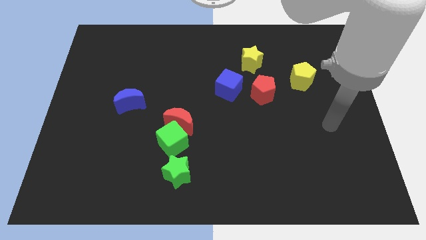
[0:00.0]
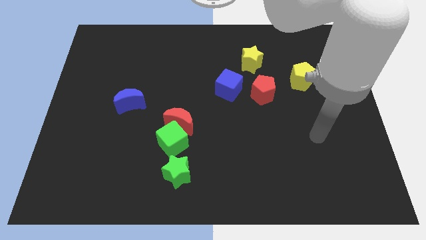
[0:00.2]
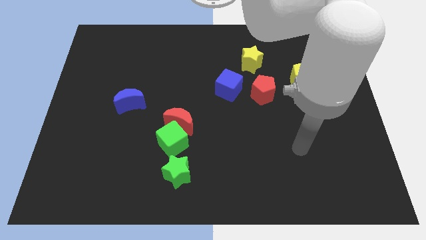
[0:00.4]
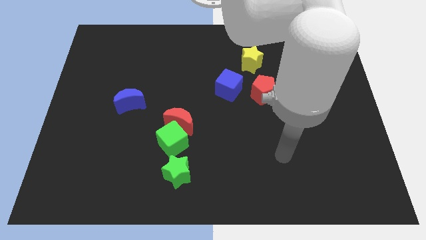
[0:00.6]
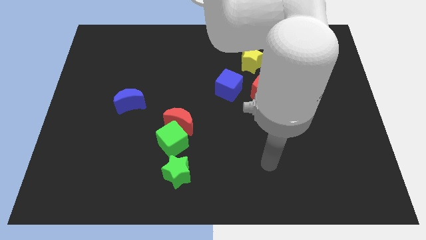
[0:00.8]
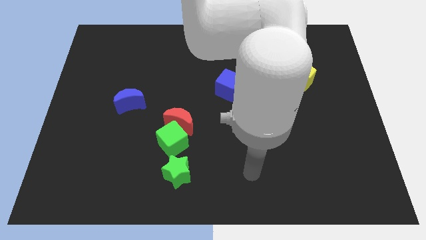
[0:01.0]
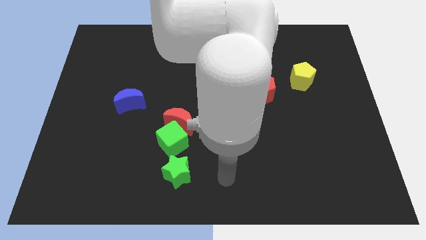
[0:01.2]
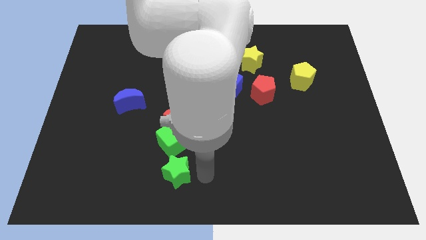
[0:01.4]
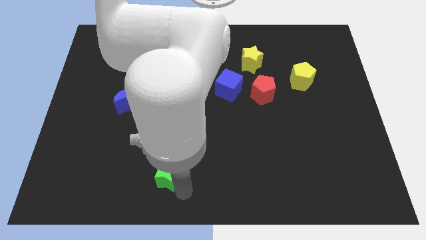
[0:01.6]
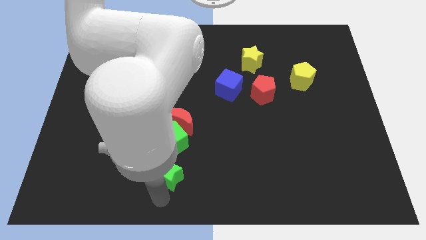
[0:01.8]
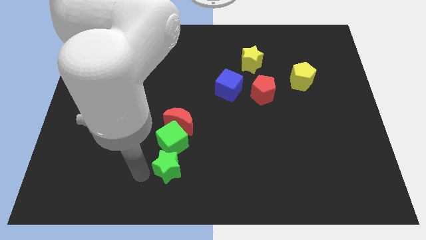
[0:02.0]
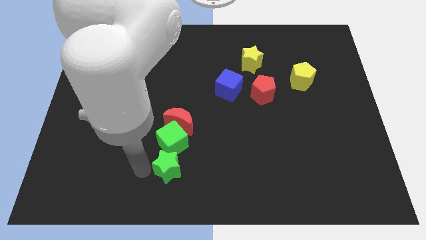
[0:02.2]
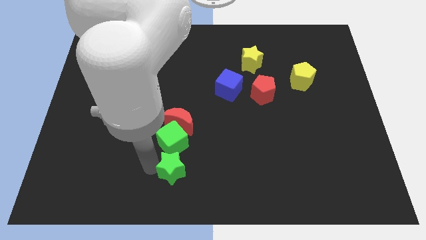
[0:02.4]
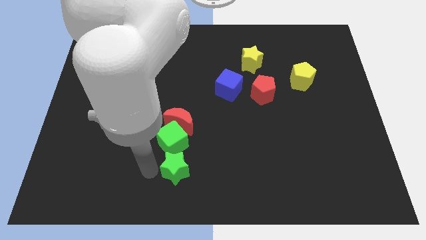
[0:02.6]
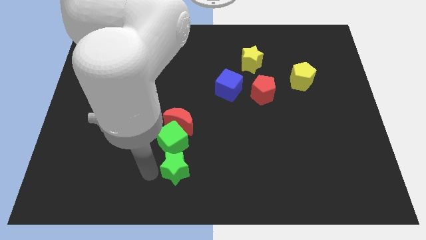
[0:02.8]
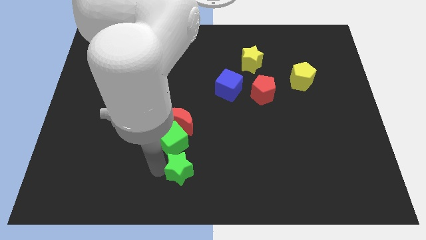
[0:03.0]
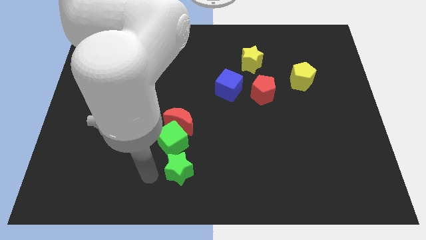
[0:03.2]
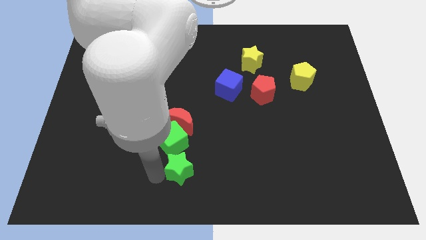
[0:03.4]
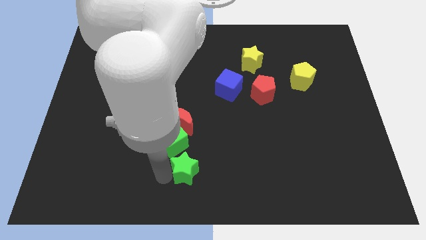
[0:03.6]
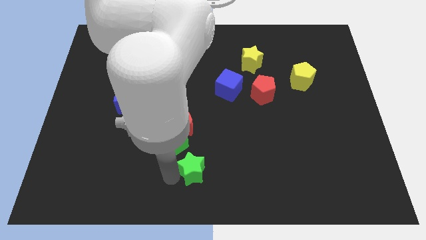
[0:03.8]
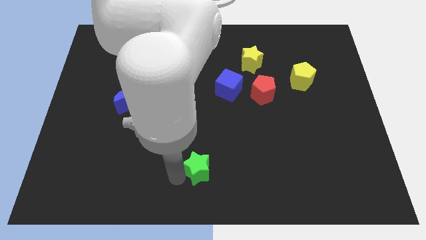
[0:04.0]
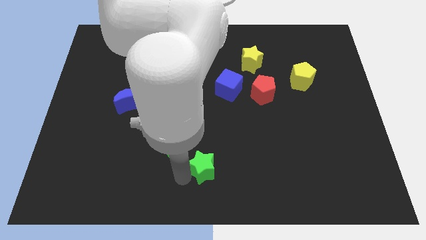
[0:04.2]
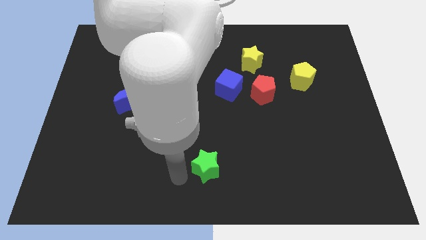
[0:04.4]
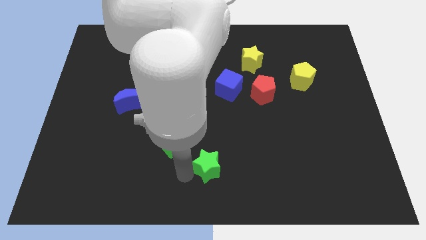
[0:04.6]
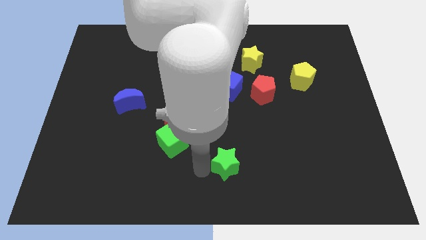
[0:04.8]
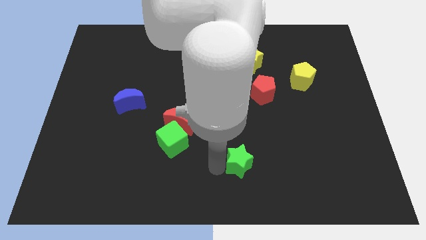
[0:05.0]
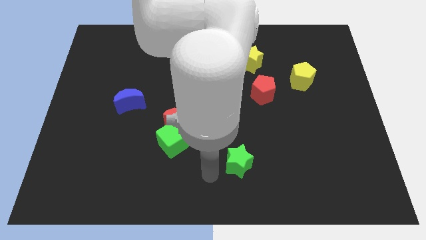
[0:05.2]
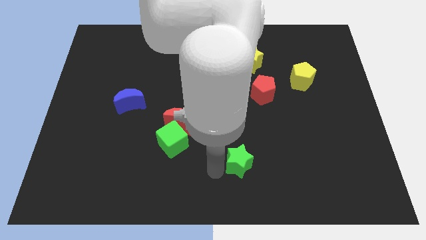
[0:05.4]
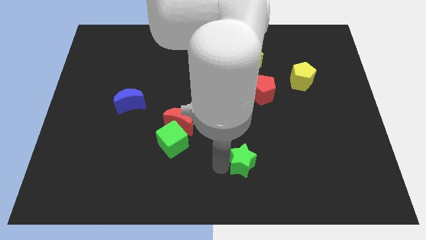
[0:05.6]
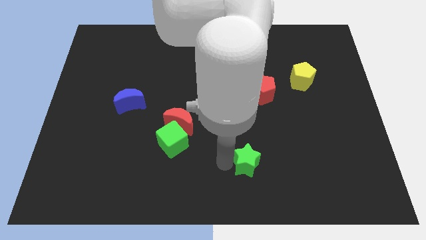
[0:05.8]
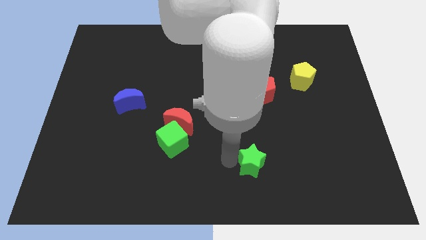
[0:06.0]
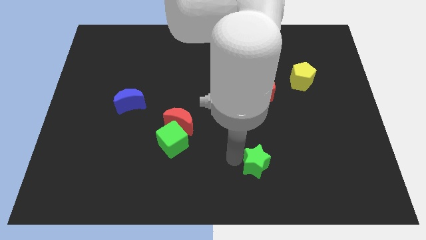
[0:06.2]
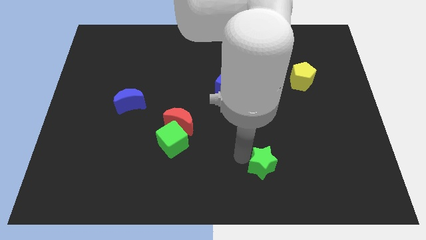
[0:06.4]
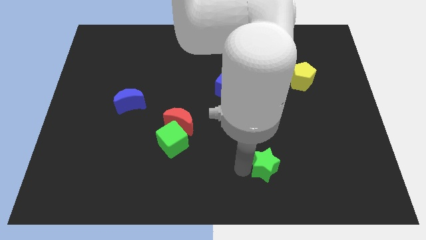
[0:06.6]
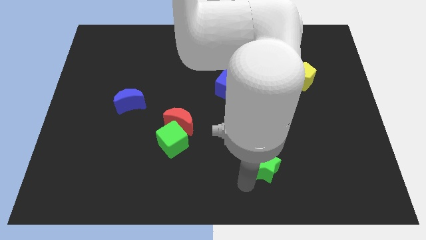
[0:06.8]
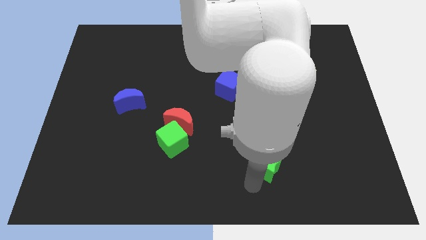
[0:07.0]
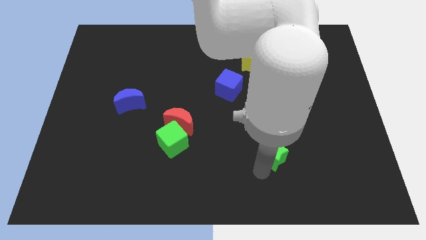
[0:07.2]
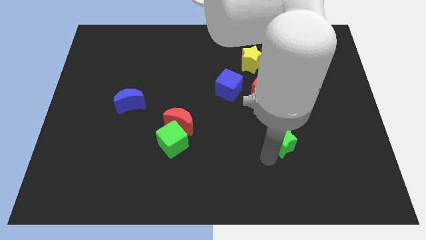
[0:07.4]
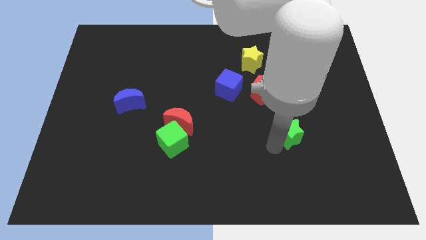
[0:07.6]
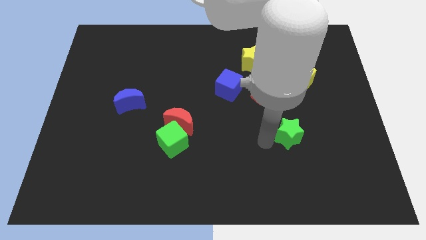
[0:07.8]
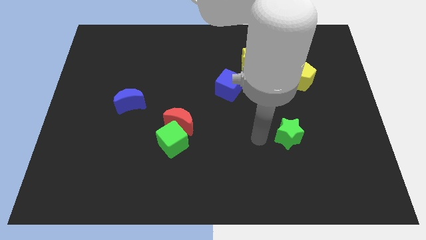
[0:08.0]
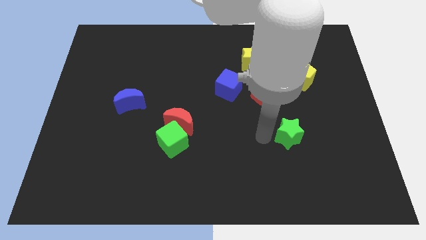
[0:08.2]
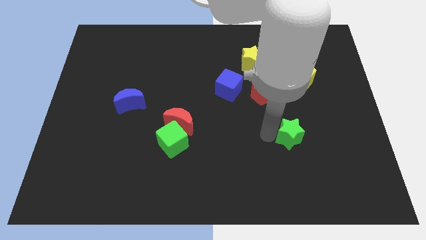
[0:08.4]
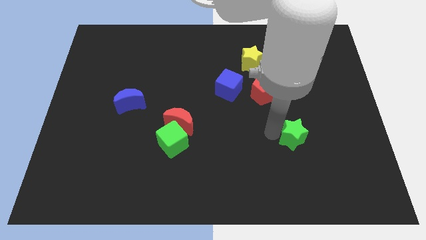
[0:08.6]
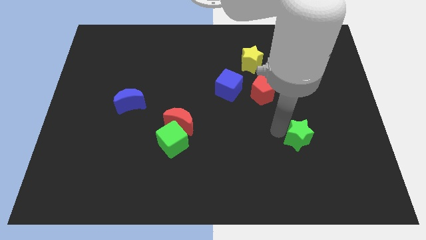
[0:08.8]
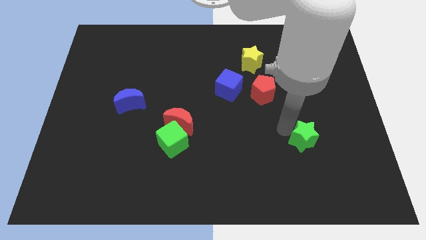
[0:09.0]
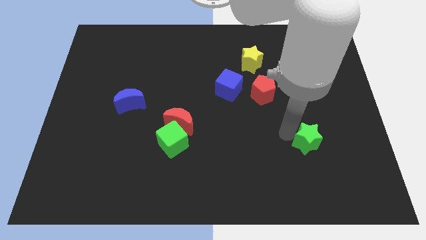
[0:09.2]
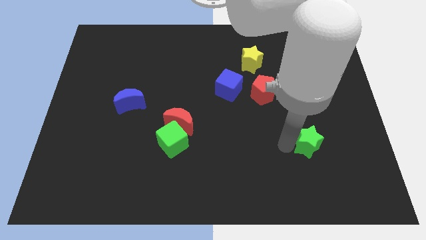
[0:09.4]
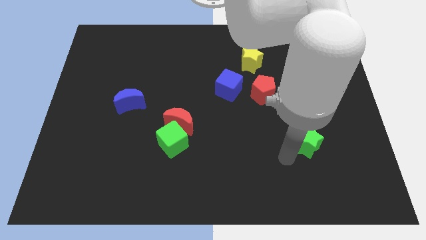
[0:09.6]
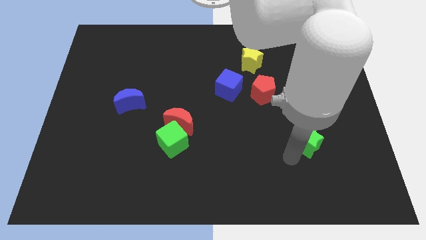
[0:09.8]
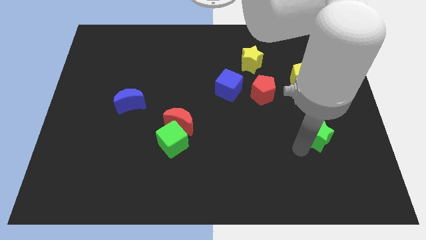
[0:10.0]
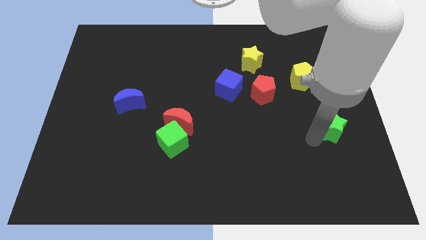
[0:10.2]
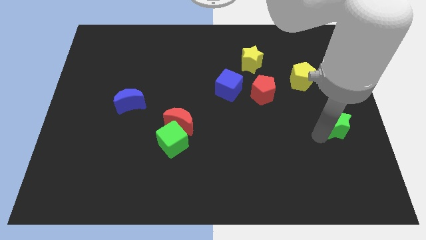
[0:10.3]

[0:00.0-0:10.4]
push the green star to the center right

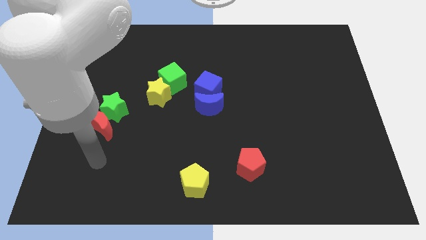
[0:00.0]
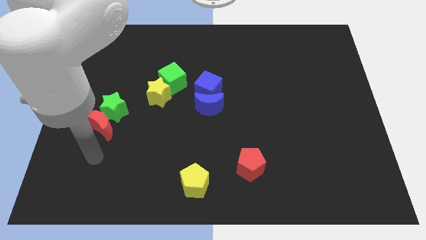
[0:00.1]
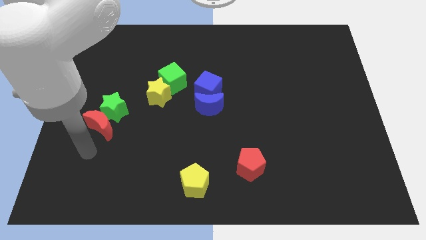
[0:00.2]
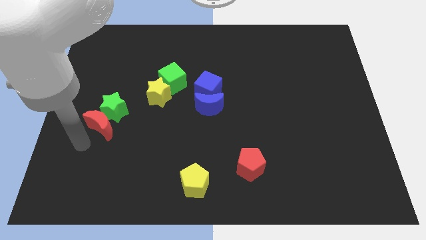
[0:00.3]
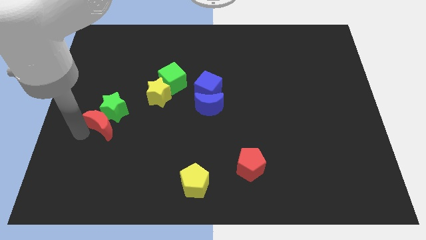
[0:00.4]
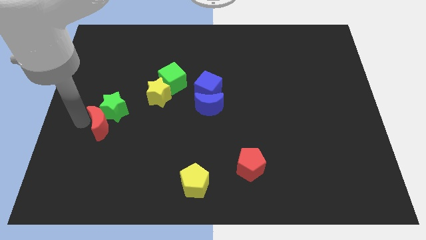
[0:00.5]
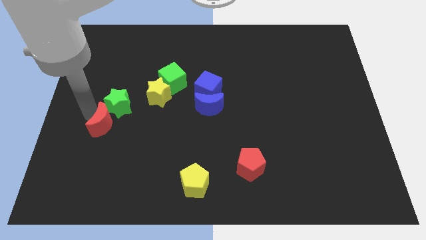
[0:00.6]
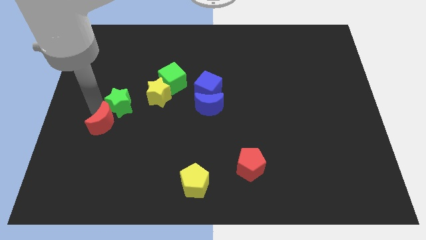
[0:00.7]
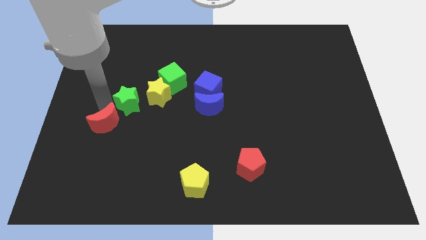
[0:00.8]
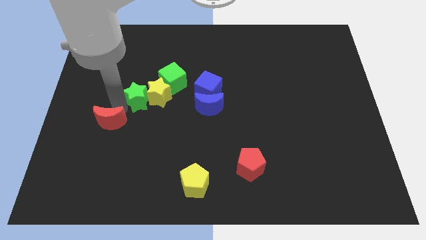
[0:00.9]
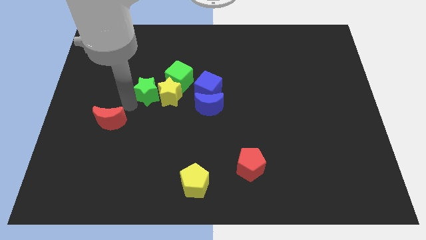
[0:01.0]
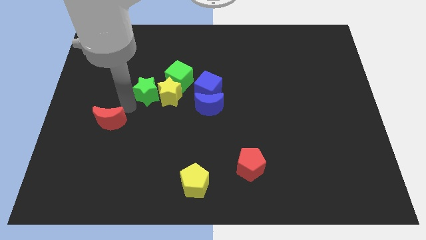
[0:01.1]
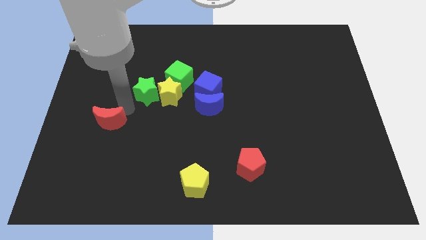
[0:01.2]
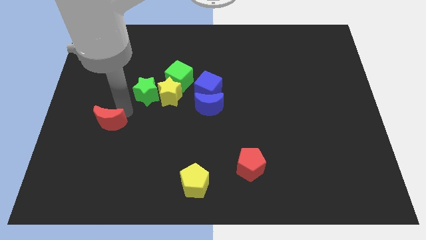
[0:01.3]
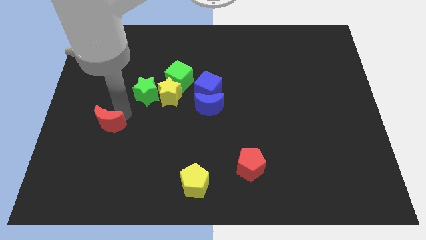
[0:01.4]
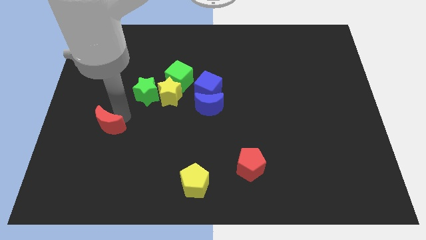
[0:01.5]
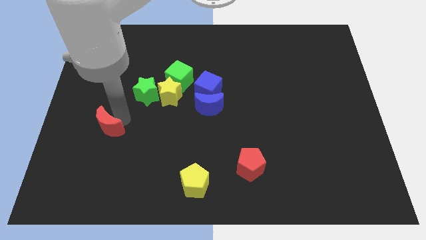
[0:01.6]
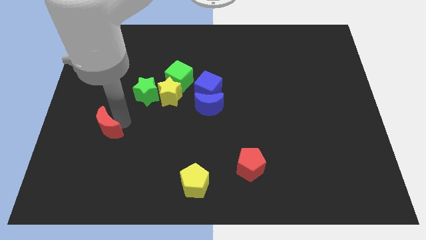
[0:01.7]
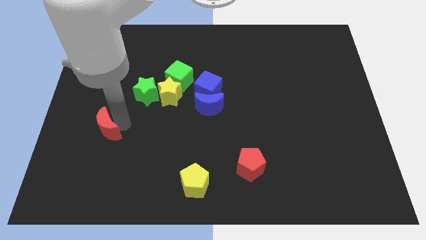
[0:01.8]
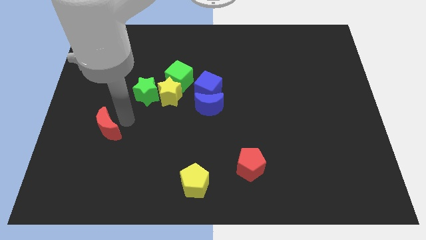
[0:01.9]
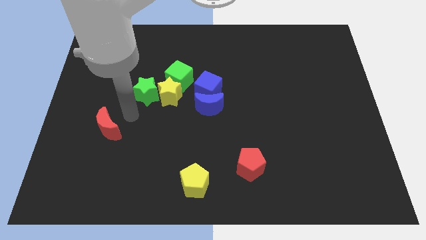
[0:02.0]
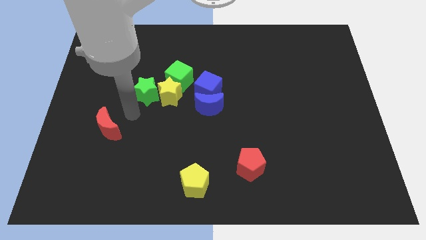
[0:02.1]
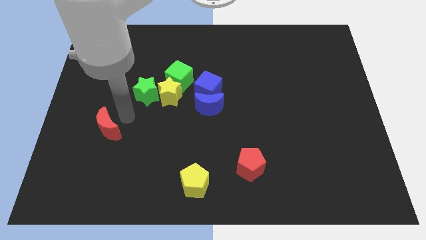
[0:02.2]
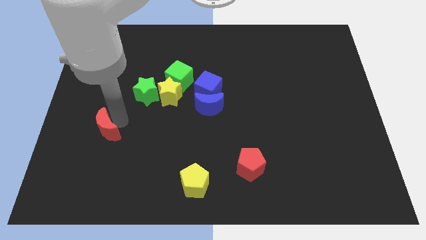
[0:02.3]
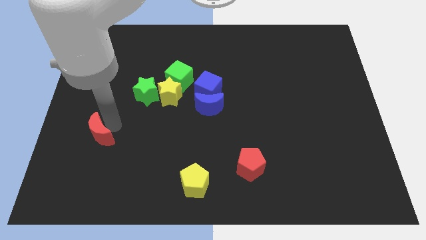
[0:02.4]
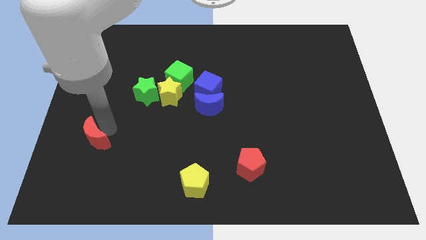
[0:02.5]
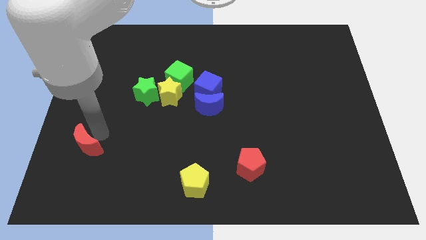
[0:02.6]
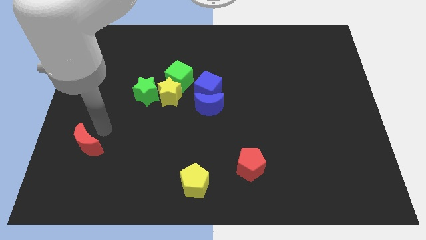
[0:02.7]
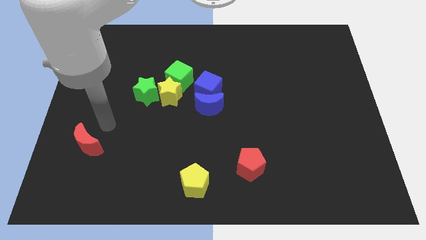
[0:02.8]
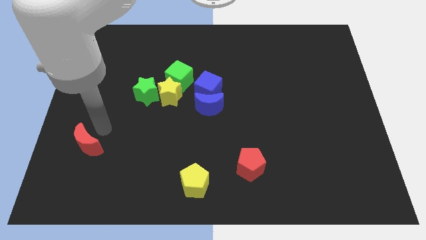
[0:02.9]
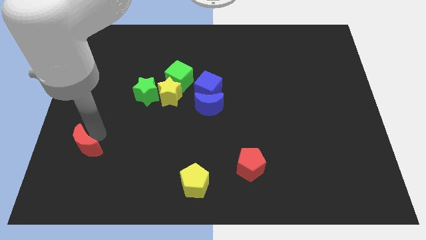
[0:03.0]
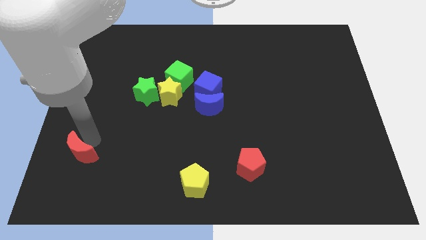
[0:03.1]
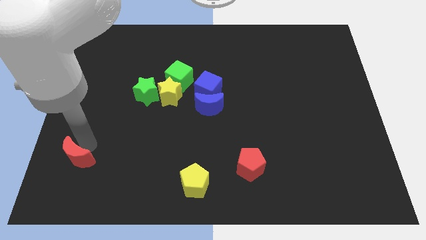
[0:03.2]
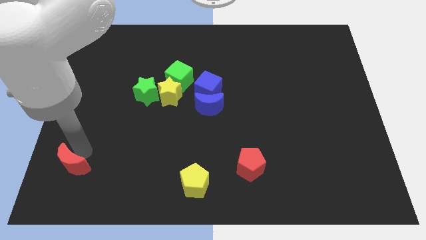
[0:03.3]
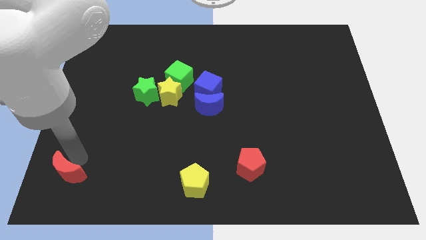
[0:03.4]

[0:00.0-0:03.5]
slide the red moon to the bottom left
